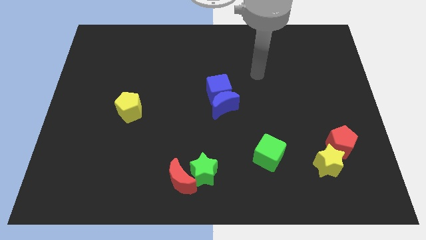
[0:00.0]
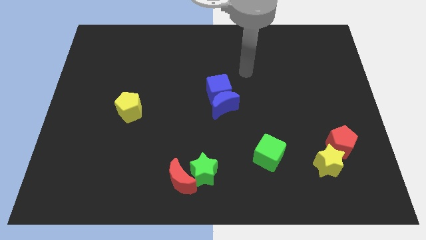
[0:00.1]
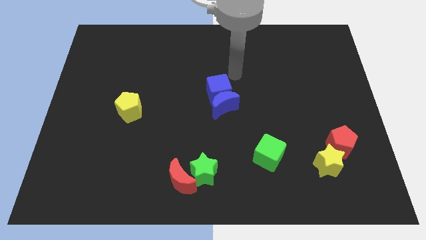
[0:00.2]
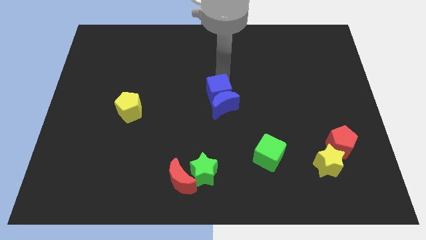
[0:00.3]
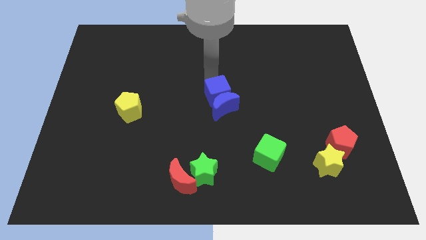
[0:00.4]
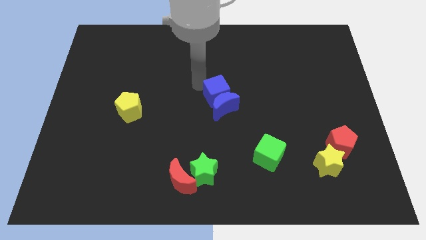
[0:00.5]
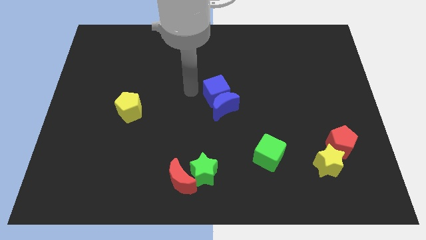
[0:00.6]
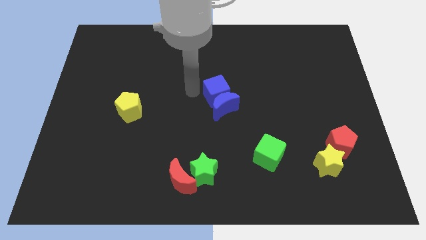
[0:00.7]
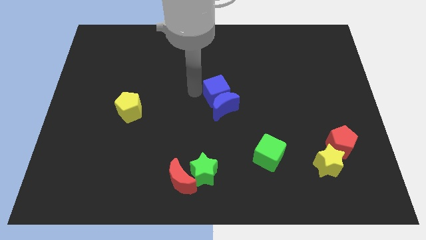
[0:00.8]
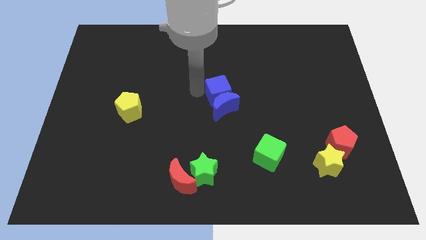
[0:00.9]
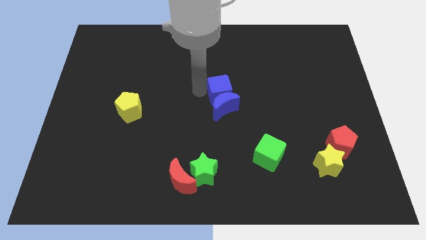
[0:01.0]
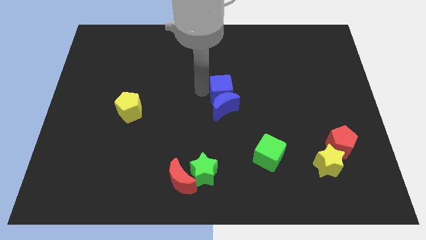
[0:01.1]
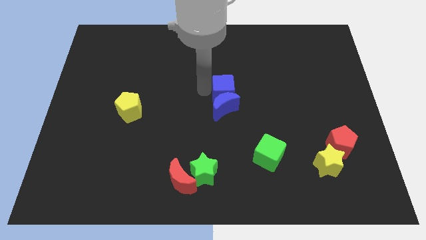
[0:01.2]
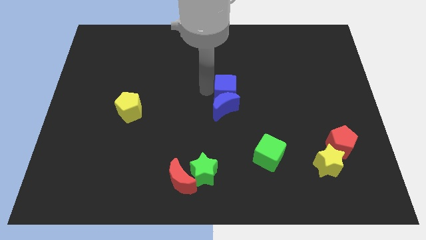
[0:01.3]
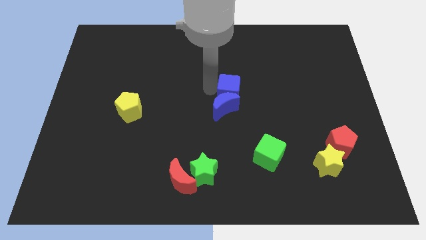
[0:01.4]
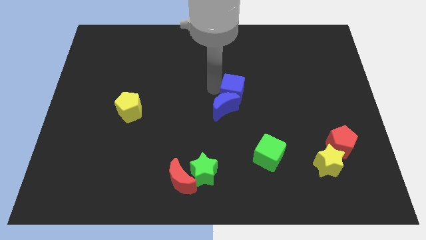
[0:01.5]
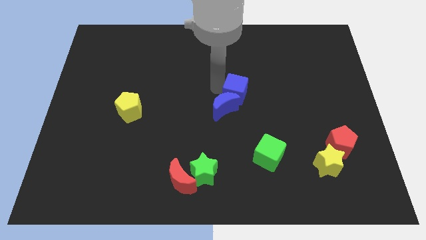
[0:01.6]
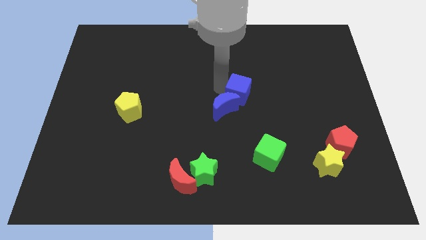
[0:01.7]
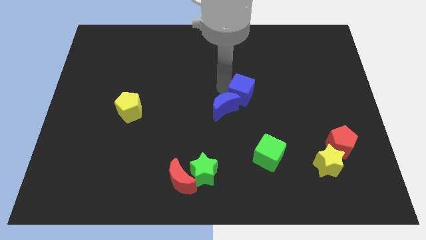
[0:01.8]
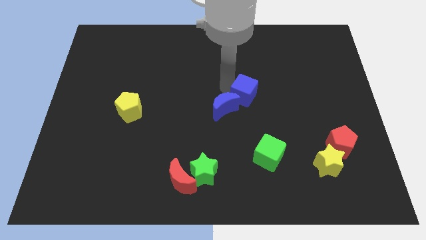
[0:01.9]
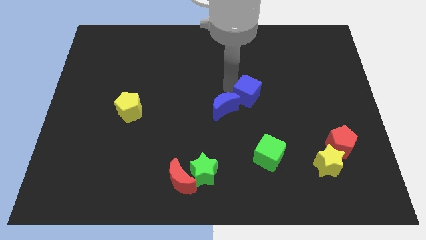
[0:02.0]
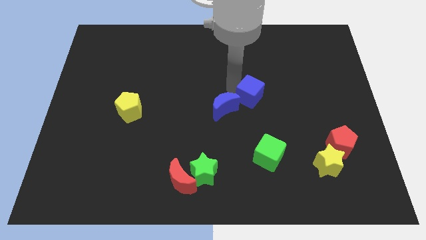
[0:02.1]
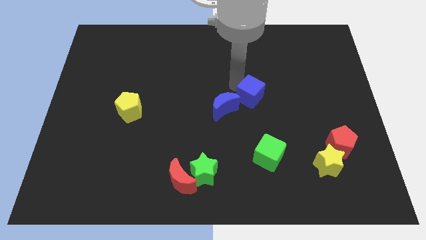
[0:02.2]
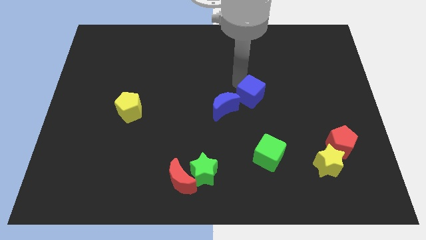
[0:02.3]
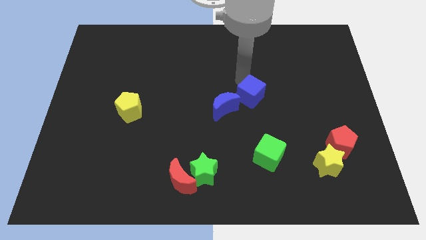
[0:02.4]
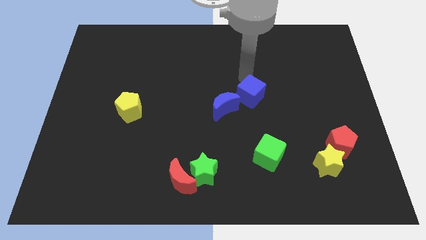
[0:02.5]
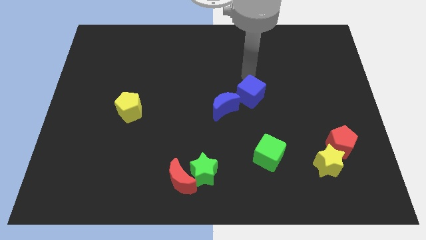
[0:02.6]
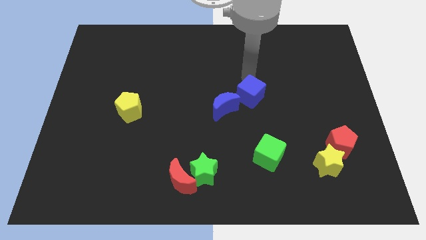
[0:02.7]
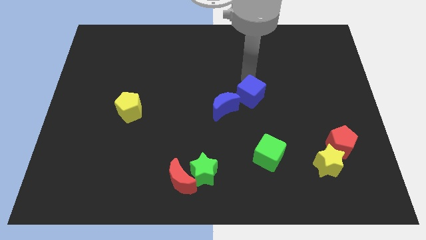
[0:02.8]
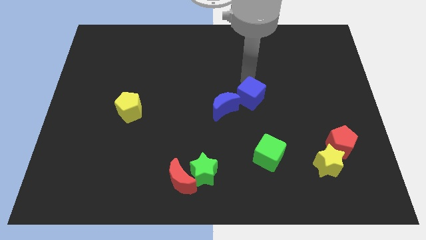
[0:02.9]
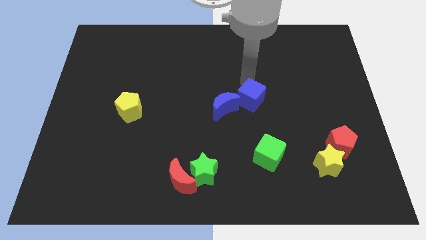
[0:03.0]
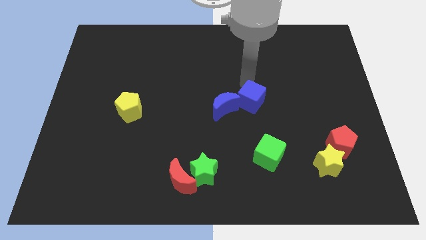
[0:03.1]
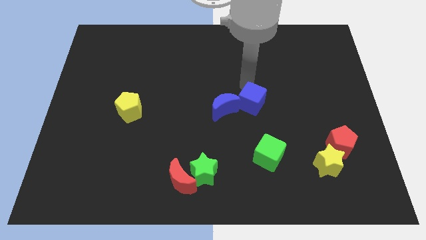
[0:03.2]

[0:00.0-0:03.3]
push the blue cube downwards and to the right somewhat

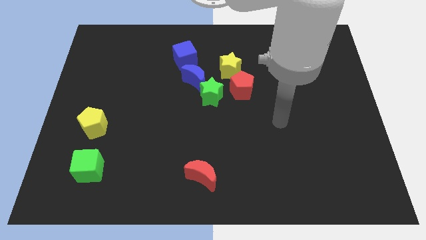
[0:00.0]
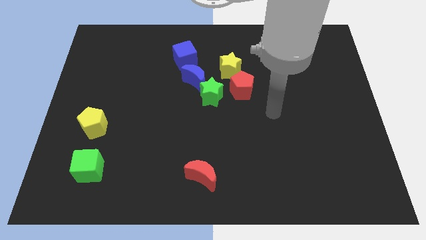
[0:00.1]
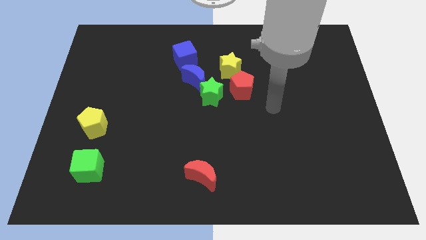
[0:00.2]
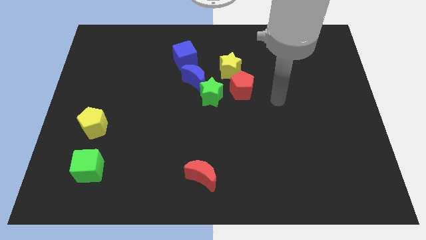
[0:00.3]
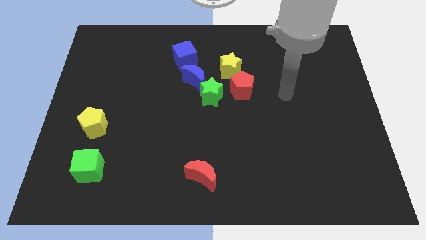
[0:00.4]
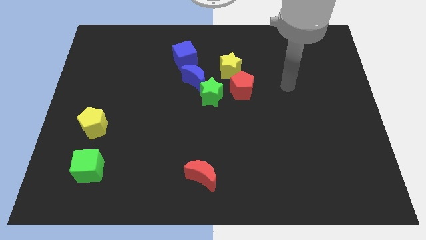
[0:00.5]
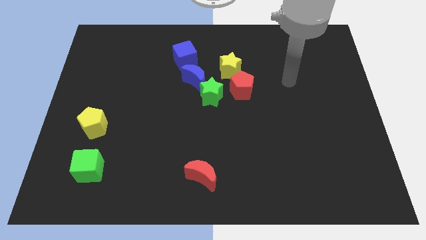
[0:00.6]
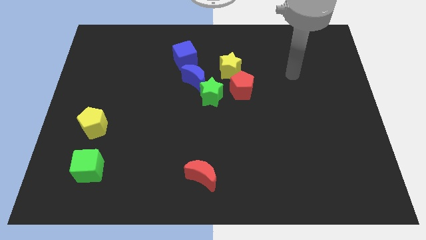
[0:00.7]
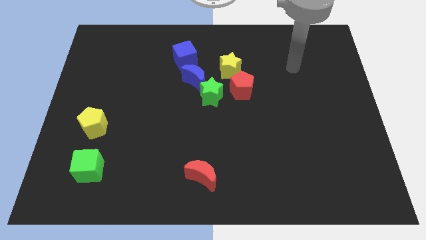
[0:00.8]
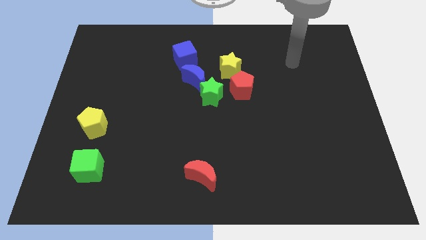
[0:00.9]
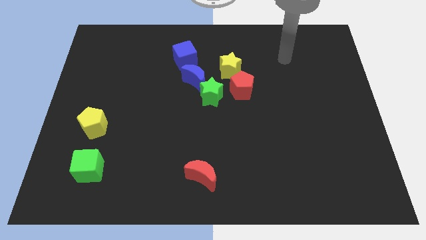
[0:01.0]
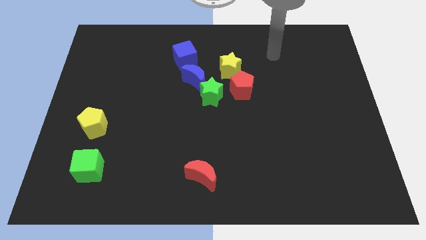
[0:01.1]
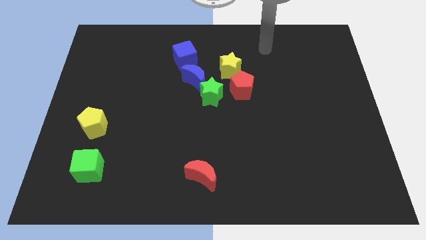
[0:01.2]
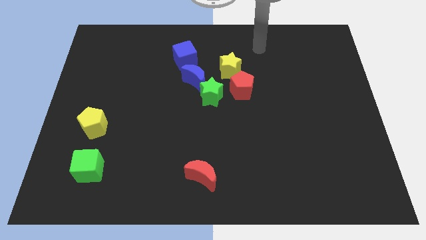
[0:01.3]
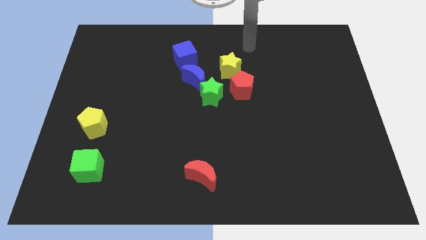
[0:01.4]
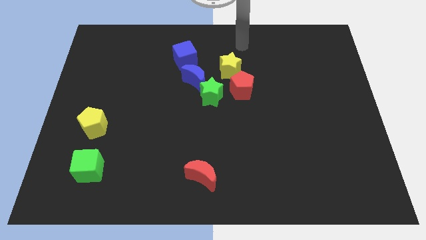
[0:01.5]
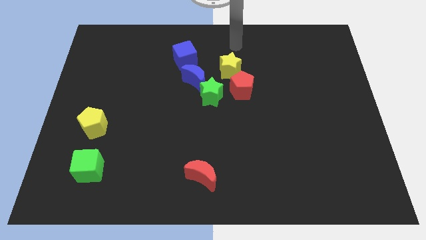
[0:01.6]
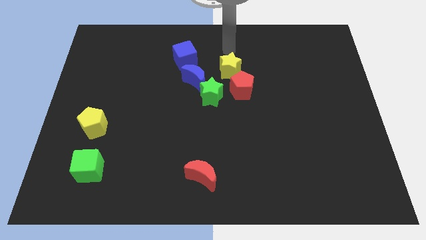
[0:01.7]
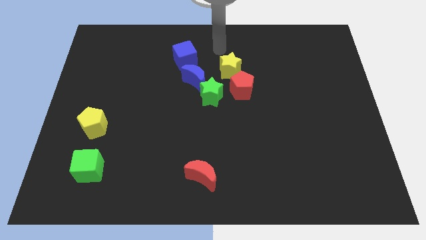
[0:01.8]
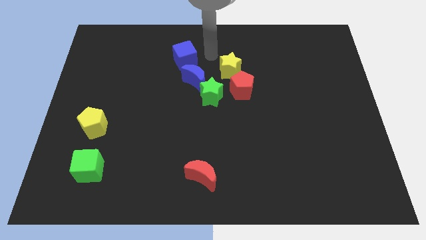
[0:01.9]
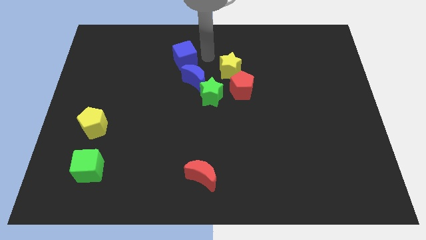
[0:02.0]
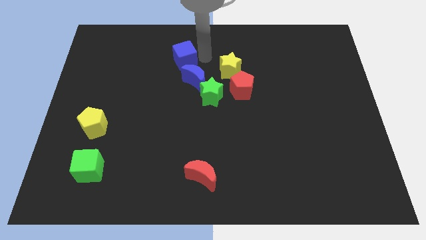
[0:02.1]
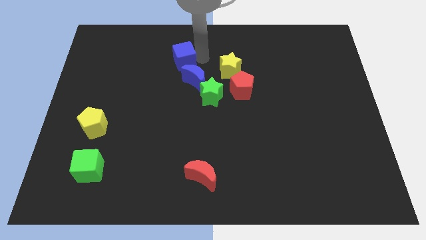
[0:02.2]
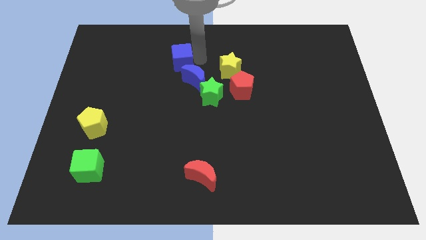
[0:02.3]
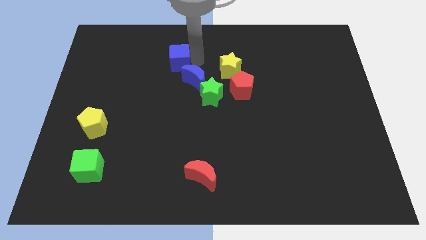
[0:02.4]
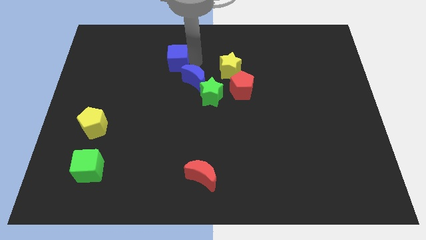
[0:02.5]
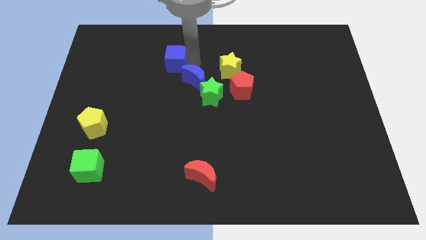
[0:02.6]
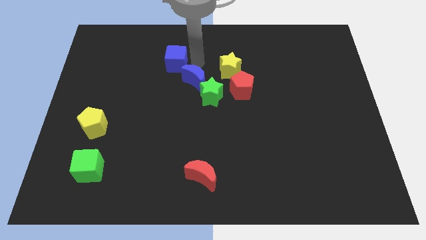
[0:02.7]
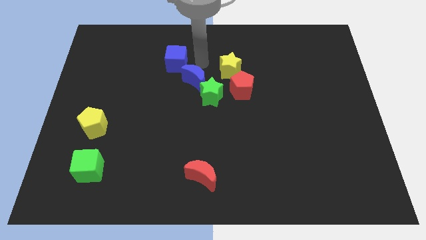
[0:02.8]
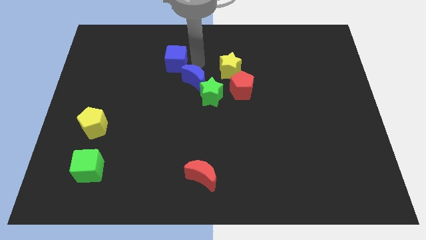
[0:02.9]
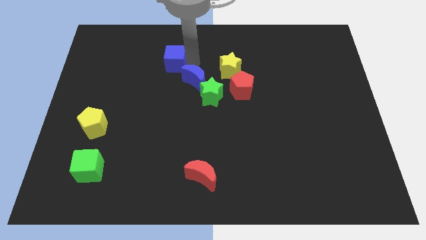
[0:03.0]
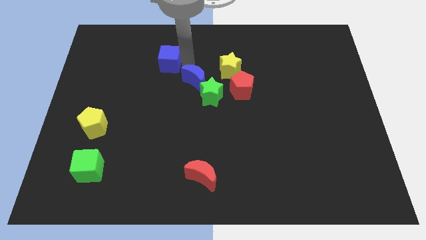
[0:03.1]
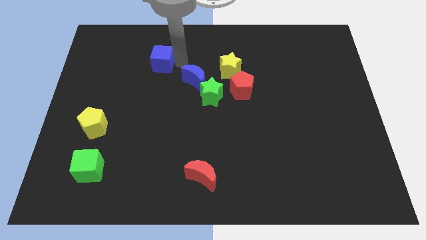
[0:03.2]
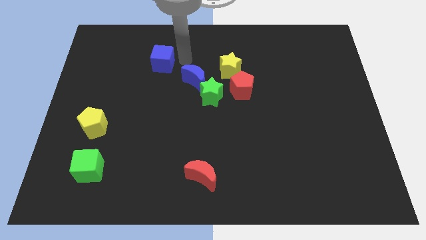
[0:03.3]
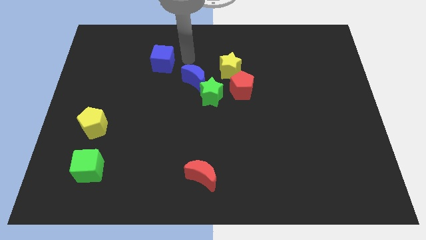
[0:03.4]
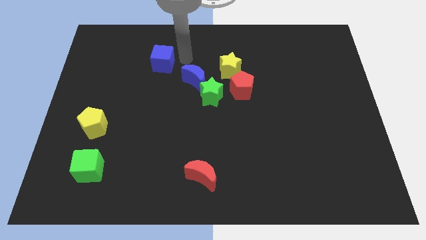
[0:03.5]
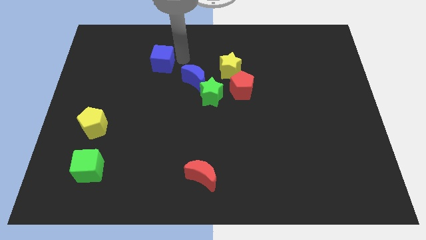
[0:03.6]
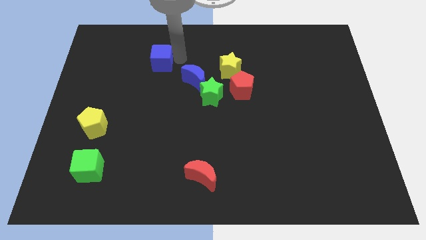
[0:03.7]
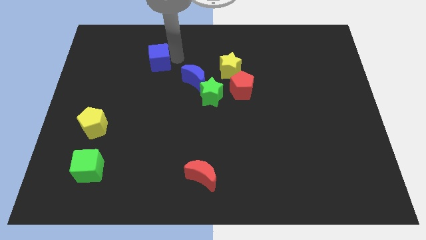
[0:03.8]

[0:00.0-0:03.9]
slightly move the blue cube left

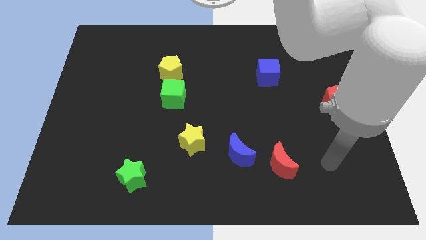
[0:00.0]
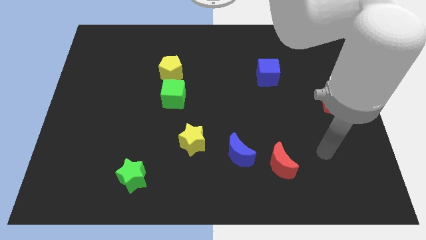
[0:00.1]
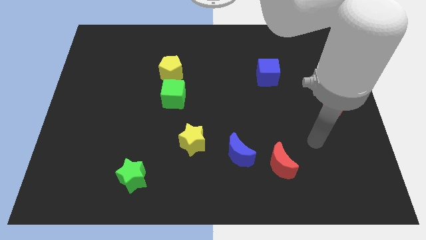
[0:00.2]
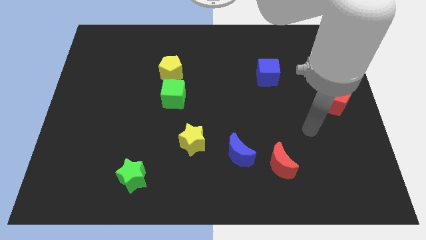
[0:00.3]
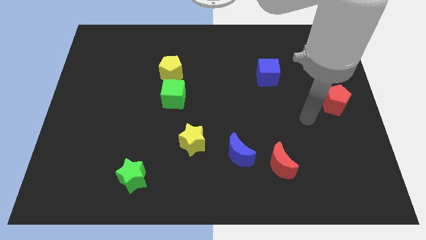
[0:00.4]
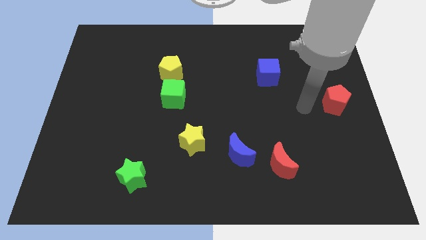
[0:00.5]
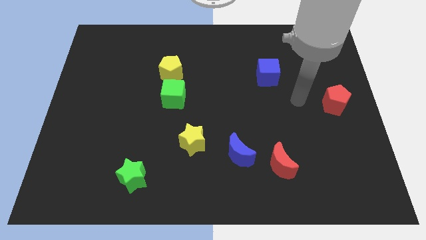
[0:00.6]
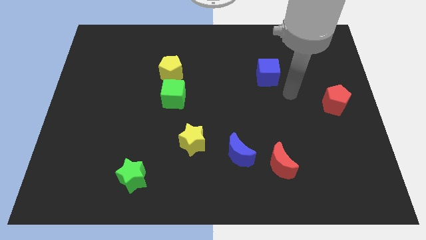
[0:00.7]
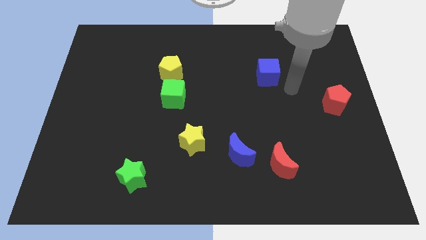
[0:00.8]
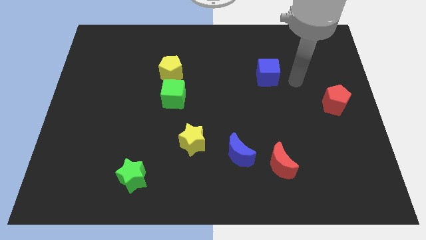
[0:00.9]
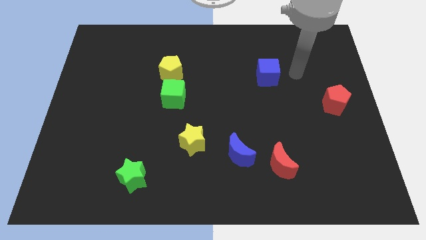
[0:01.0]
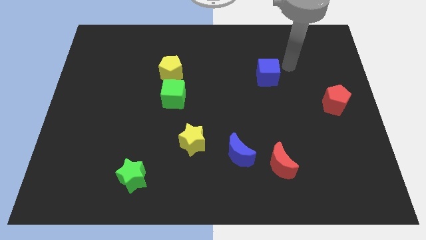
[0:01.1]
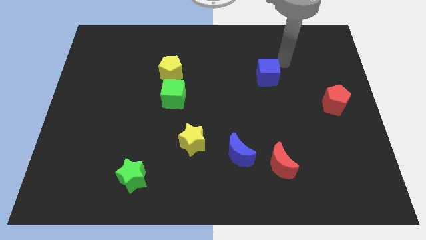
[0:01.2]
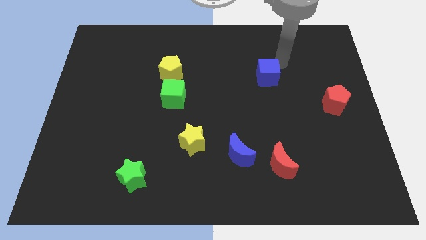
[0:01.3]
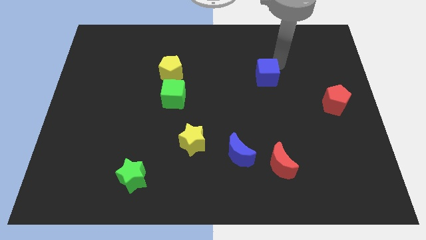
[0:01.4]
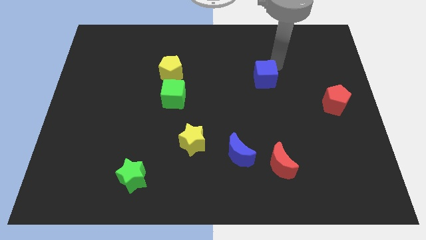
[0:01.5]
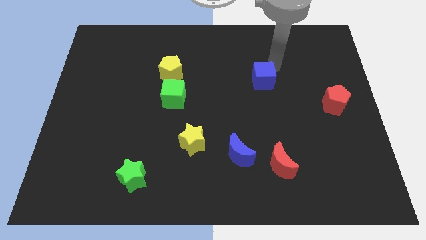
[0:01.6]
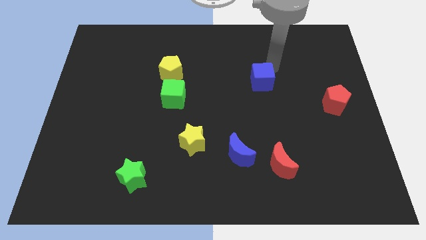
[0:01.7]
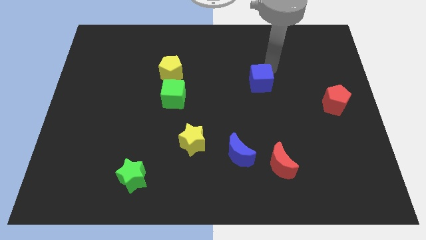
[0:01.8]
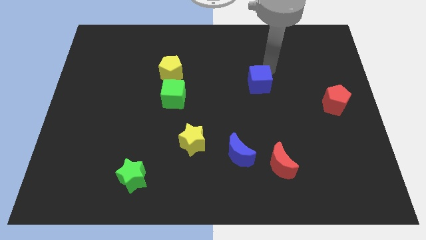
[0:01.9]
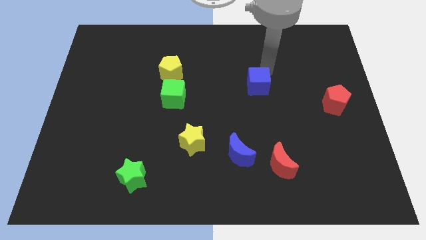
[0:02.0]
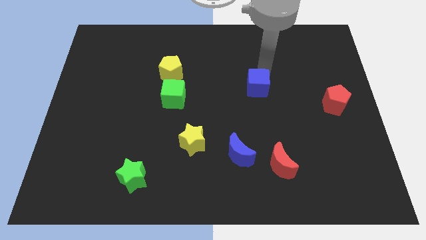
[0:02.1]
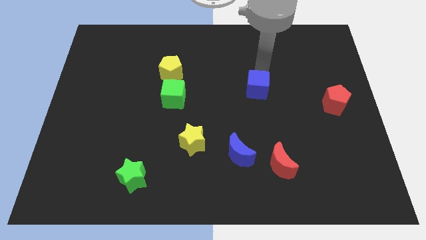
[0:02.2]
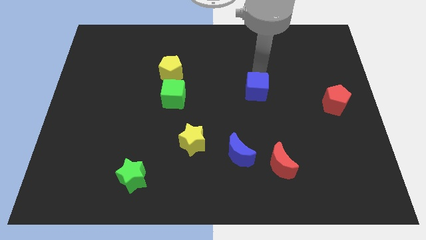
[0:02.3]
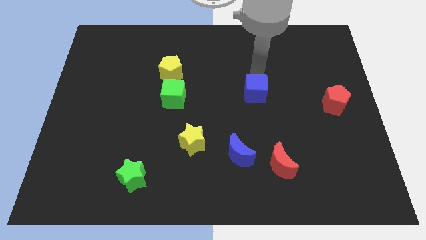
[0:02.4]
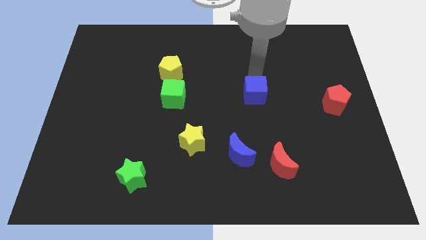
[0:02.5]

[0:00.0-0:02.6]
slightly slide the blue cube downwards and left
